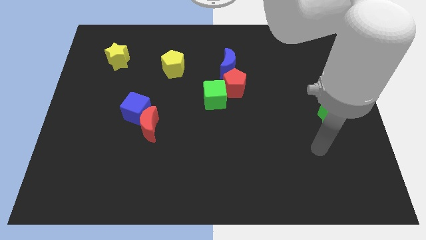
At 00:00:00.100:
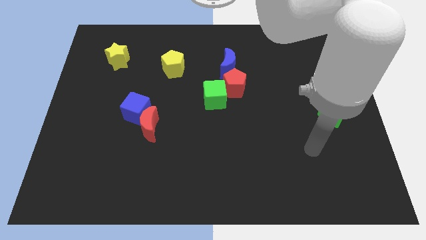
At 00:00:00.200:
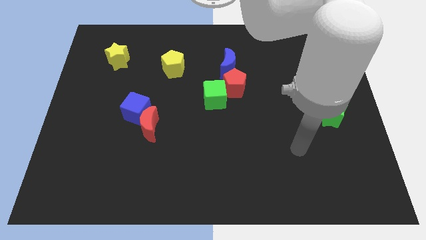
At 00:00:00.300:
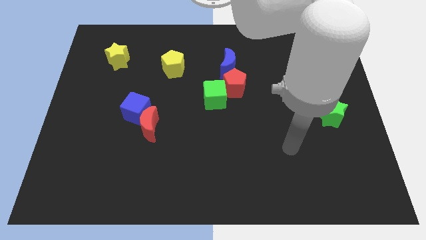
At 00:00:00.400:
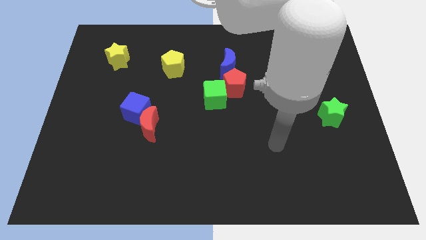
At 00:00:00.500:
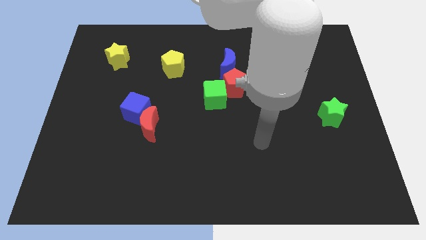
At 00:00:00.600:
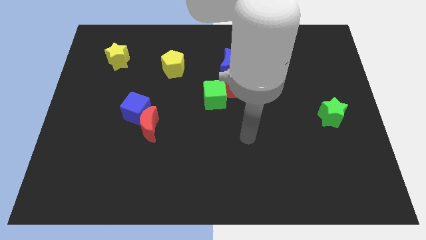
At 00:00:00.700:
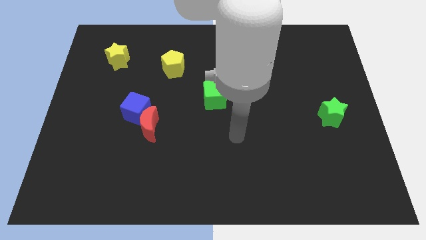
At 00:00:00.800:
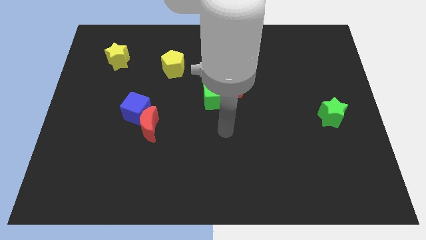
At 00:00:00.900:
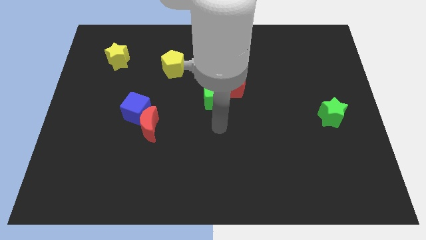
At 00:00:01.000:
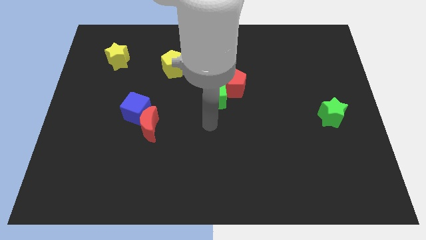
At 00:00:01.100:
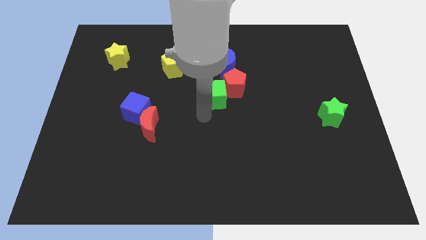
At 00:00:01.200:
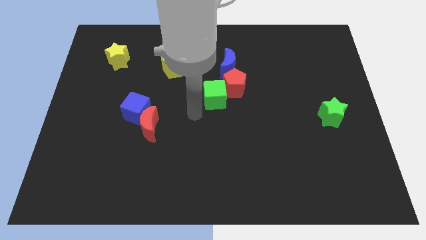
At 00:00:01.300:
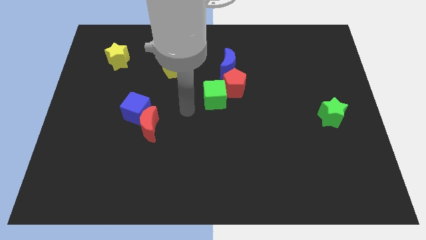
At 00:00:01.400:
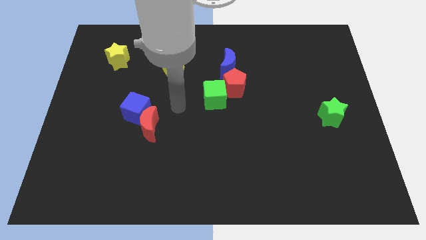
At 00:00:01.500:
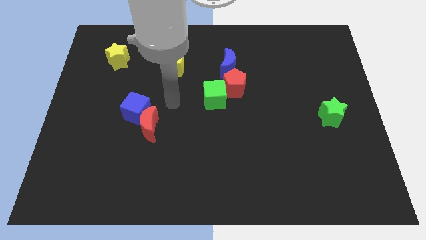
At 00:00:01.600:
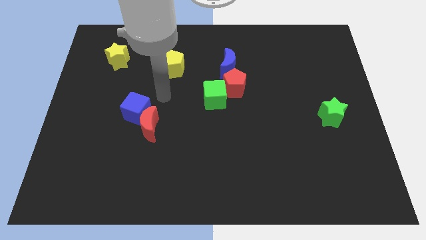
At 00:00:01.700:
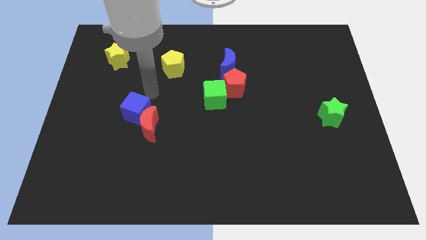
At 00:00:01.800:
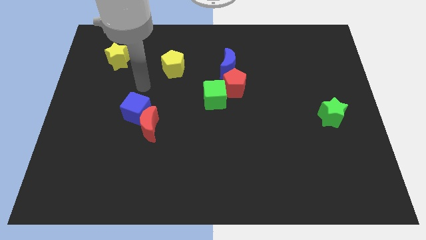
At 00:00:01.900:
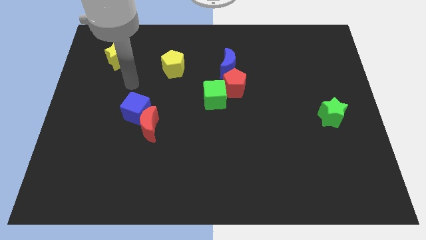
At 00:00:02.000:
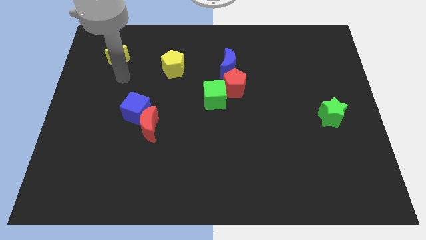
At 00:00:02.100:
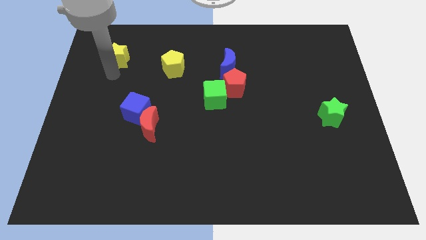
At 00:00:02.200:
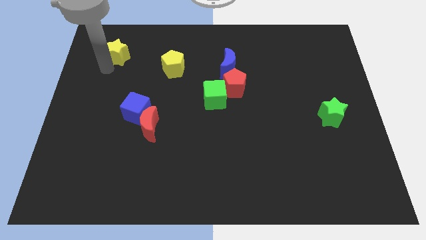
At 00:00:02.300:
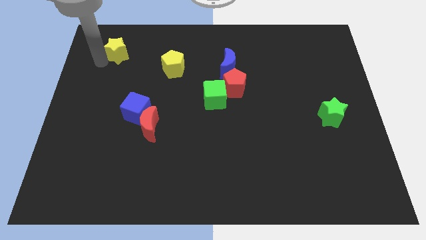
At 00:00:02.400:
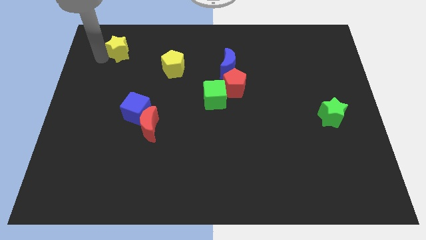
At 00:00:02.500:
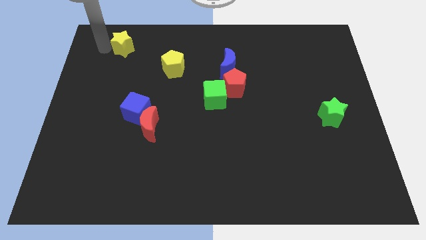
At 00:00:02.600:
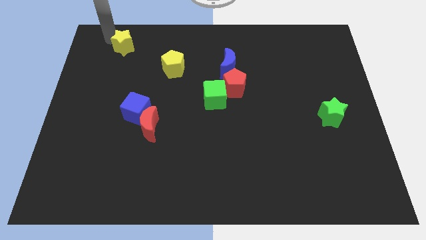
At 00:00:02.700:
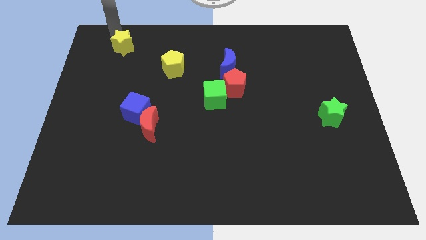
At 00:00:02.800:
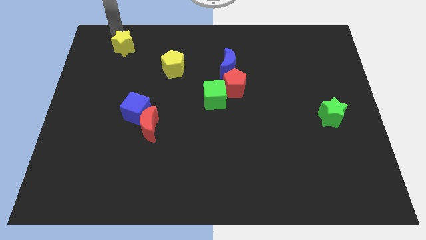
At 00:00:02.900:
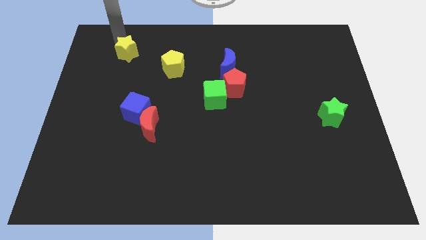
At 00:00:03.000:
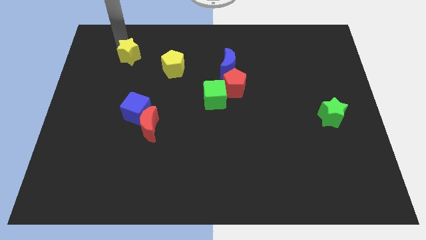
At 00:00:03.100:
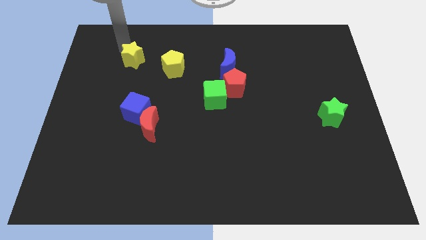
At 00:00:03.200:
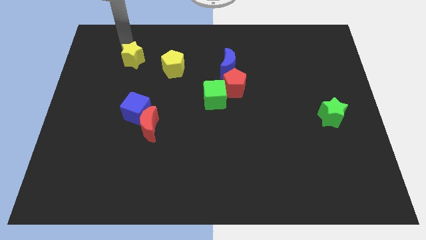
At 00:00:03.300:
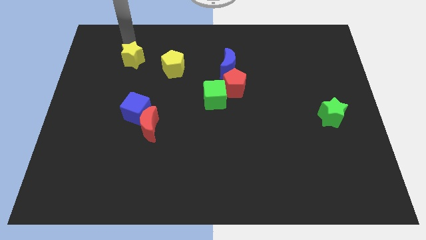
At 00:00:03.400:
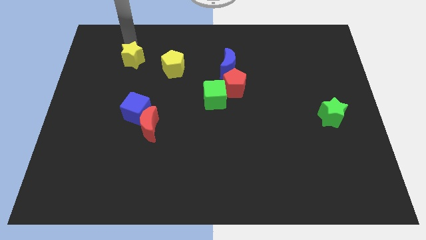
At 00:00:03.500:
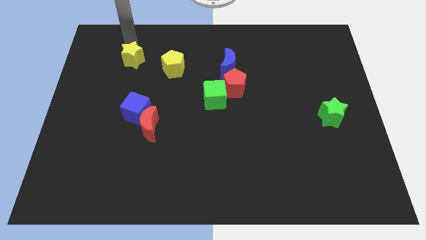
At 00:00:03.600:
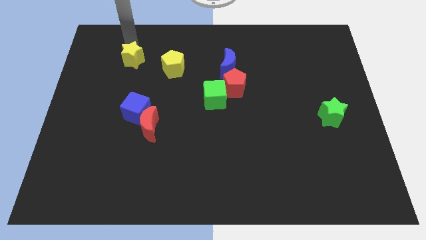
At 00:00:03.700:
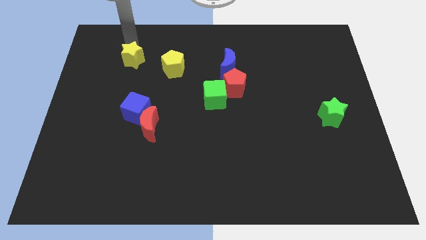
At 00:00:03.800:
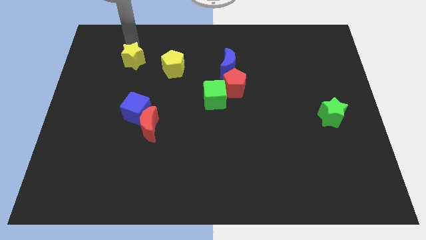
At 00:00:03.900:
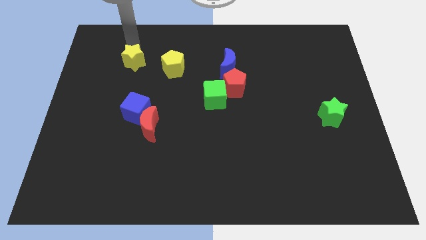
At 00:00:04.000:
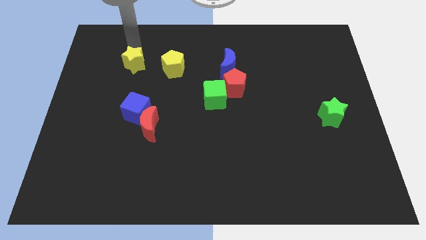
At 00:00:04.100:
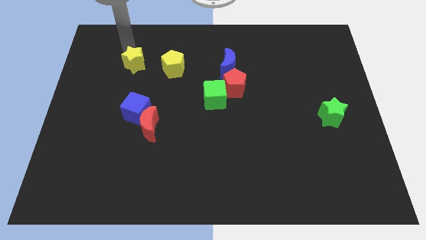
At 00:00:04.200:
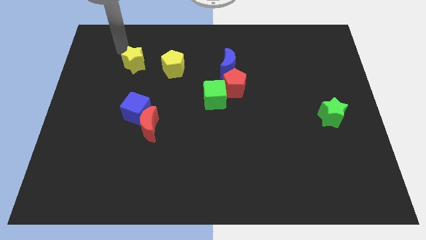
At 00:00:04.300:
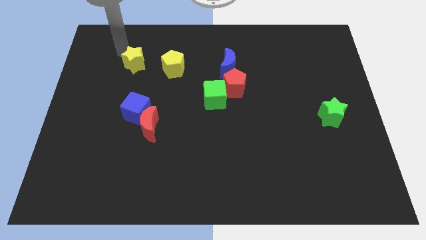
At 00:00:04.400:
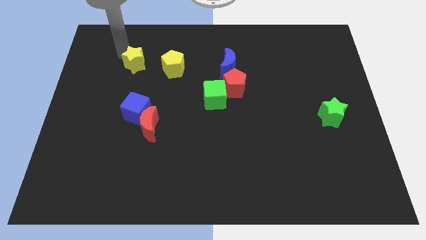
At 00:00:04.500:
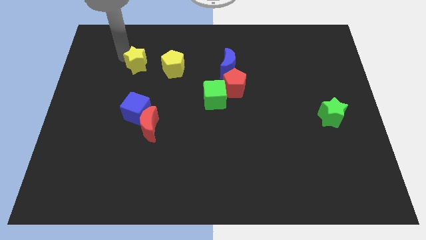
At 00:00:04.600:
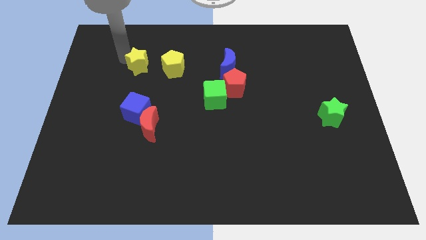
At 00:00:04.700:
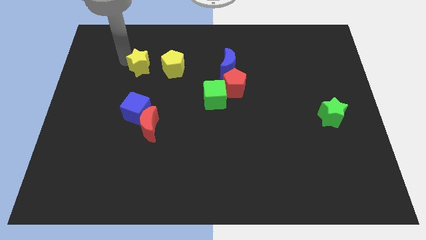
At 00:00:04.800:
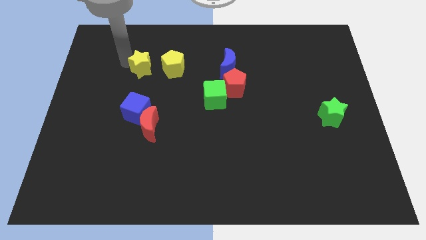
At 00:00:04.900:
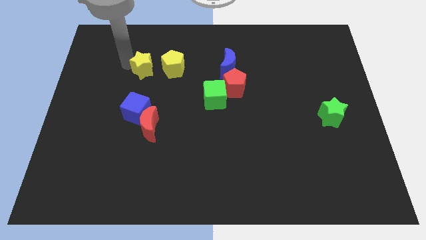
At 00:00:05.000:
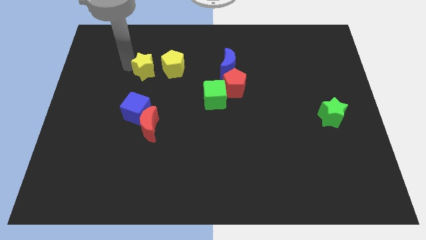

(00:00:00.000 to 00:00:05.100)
push the yellow star a little bit downwards and to the right diagonally

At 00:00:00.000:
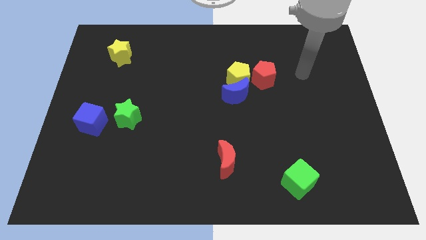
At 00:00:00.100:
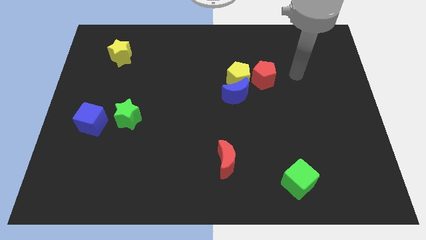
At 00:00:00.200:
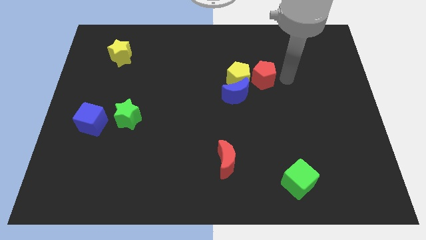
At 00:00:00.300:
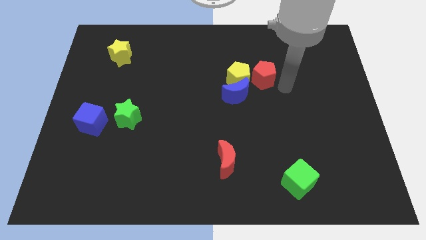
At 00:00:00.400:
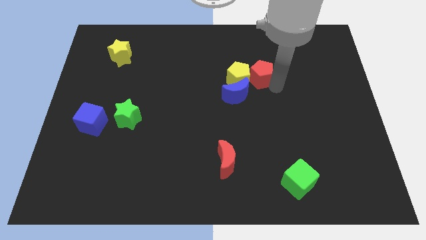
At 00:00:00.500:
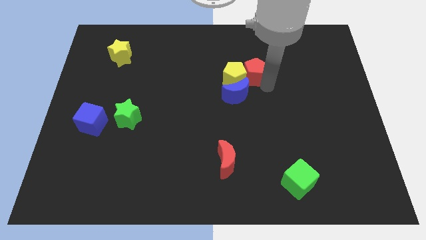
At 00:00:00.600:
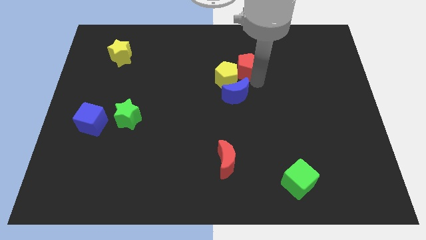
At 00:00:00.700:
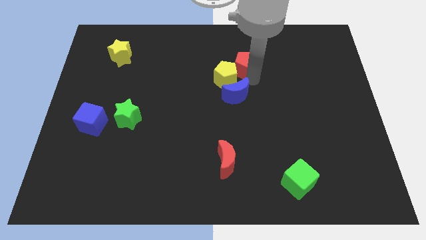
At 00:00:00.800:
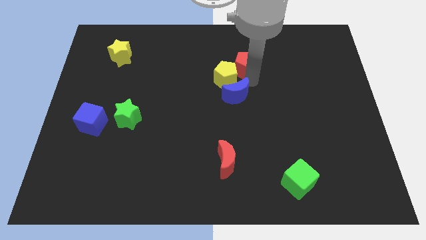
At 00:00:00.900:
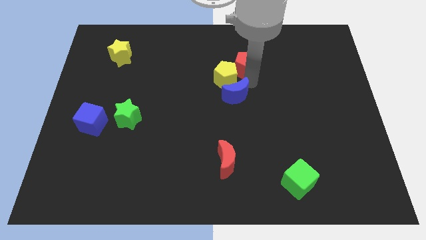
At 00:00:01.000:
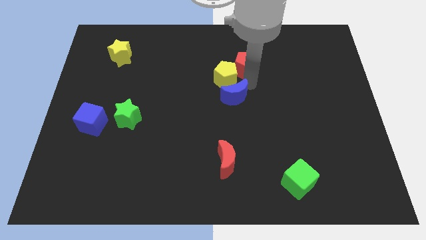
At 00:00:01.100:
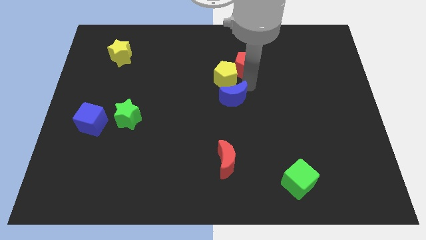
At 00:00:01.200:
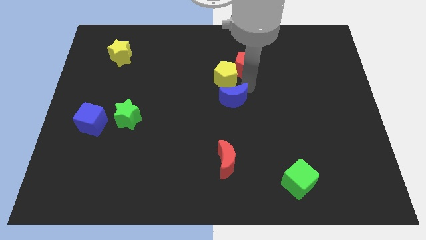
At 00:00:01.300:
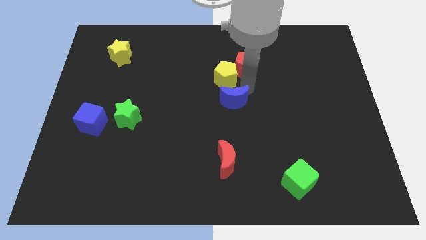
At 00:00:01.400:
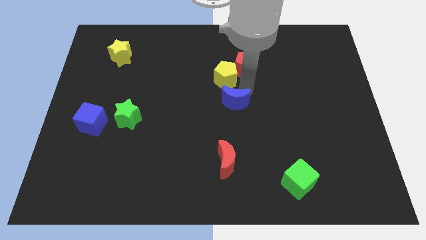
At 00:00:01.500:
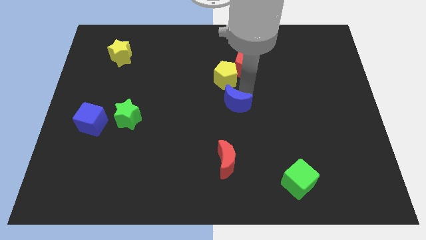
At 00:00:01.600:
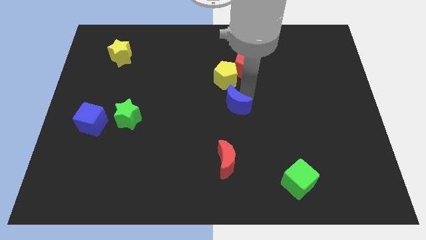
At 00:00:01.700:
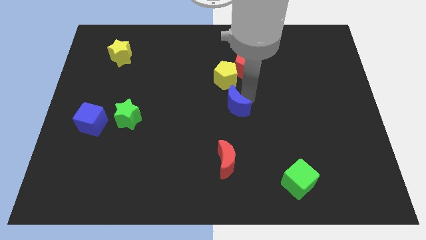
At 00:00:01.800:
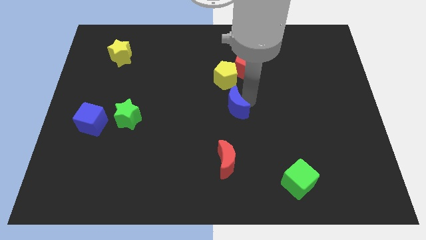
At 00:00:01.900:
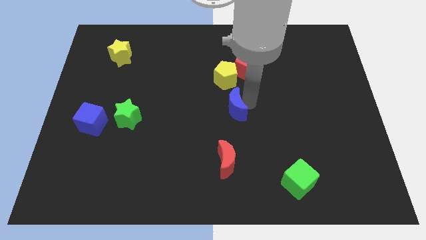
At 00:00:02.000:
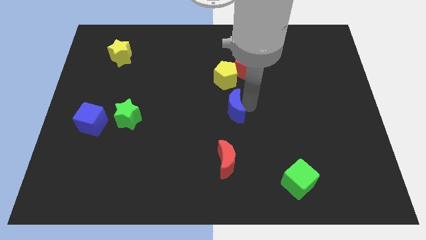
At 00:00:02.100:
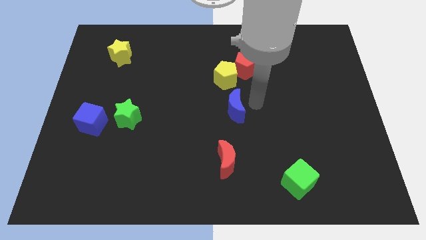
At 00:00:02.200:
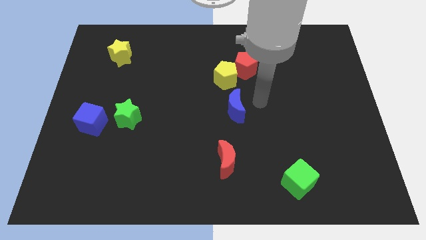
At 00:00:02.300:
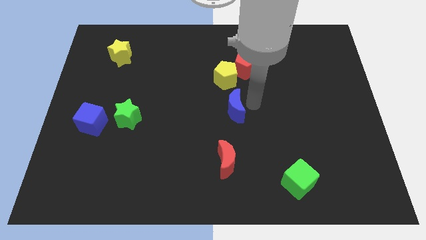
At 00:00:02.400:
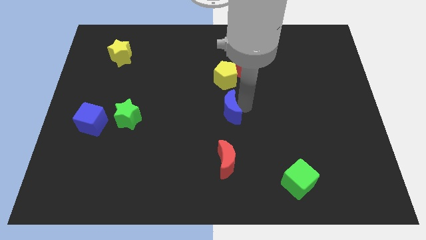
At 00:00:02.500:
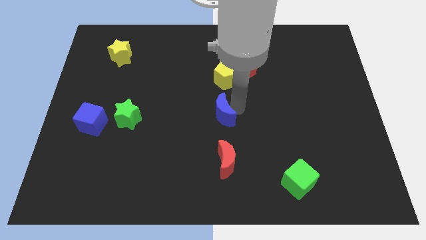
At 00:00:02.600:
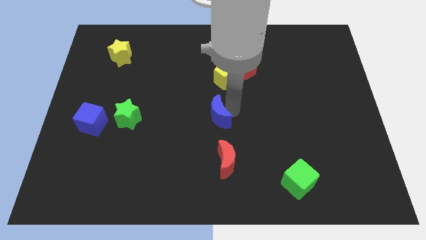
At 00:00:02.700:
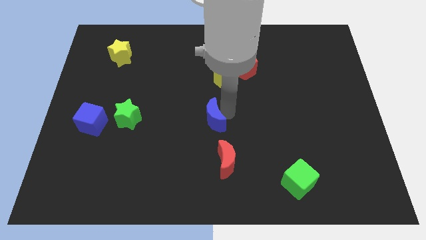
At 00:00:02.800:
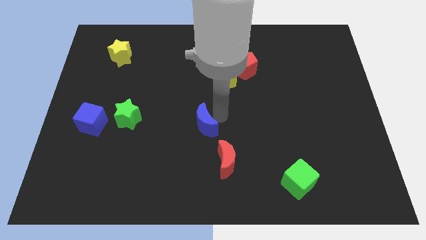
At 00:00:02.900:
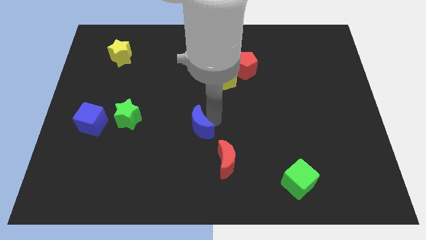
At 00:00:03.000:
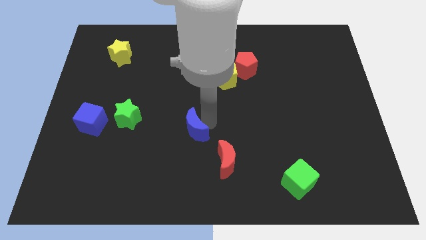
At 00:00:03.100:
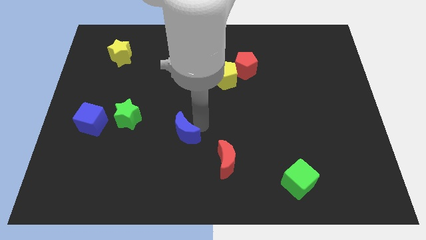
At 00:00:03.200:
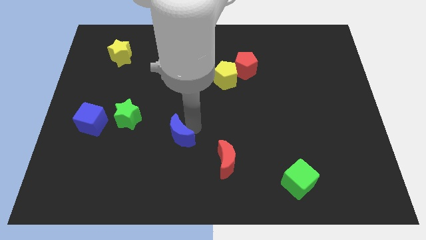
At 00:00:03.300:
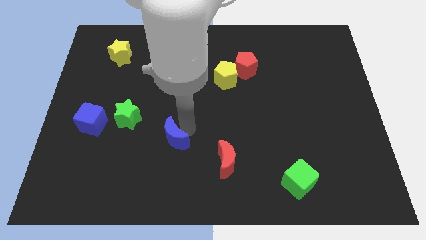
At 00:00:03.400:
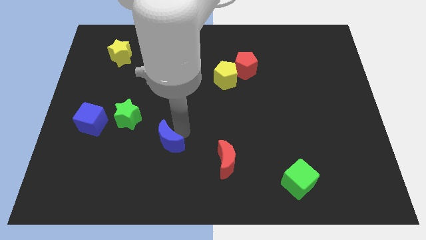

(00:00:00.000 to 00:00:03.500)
slide the blue moon down and then left
